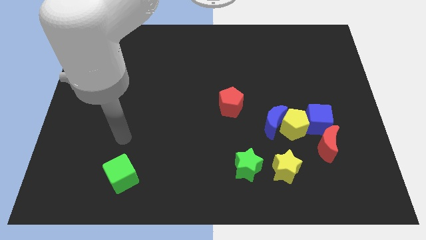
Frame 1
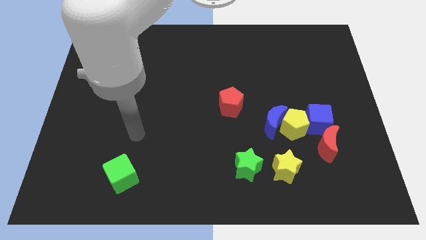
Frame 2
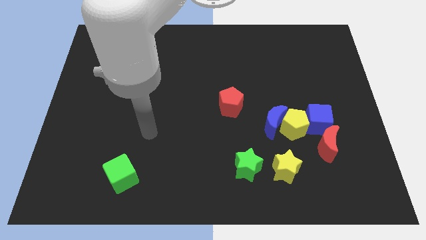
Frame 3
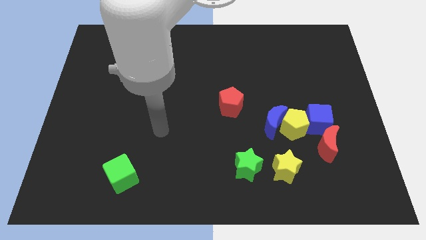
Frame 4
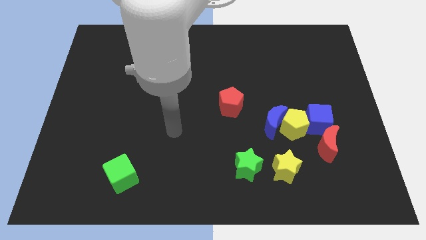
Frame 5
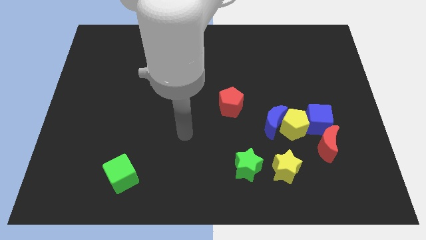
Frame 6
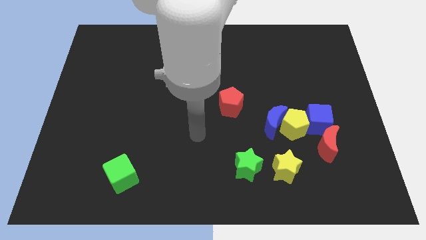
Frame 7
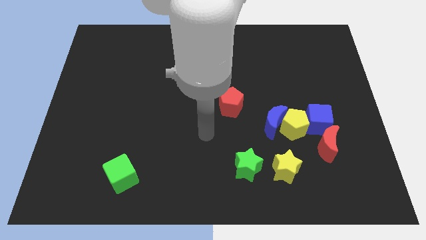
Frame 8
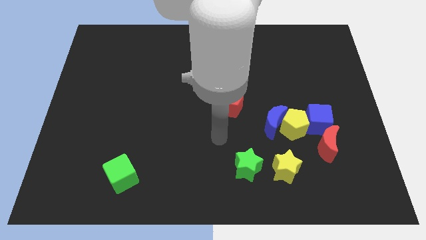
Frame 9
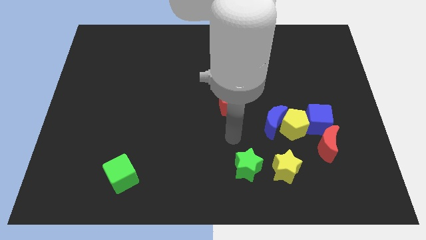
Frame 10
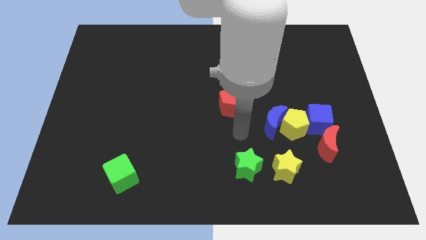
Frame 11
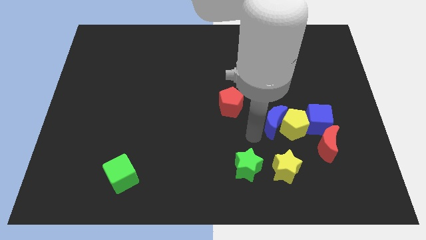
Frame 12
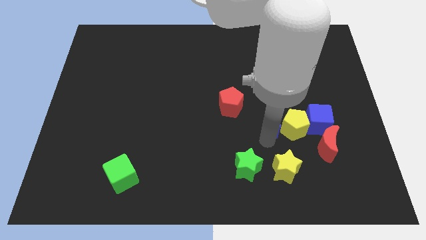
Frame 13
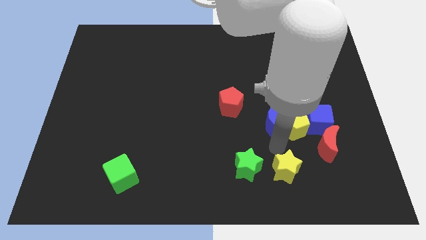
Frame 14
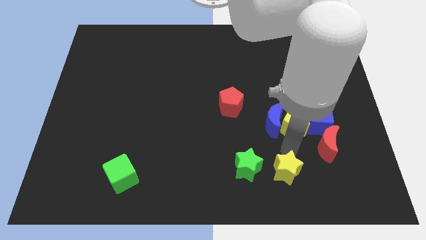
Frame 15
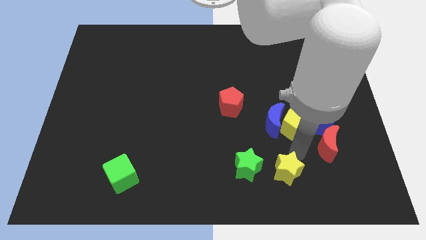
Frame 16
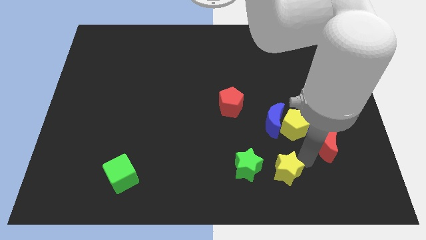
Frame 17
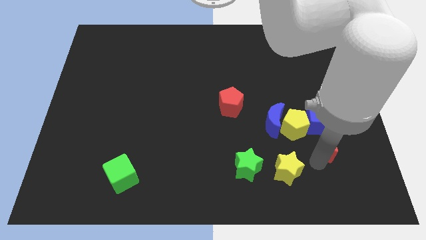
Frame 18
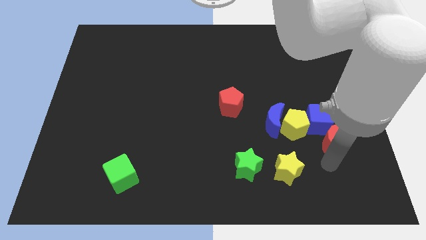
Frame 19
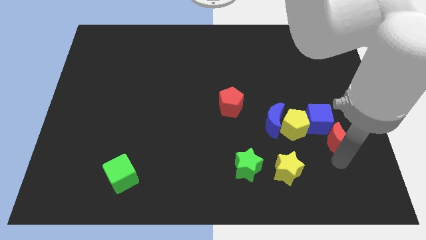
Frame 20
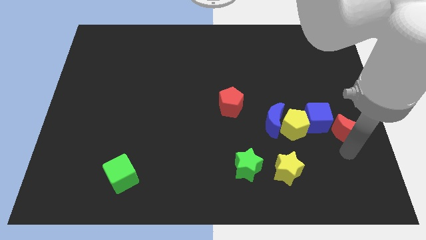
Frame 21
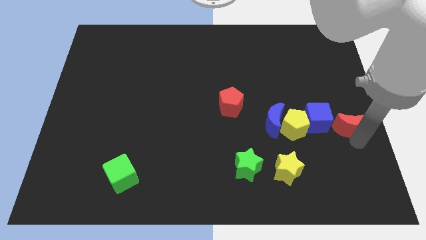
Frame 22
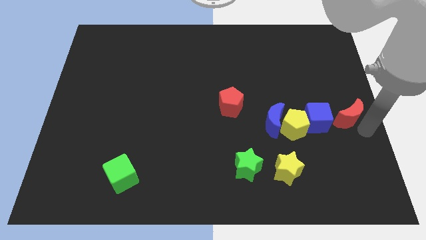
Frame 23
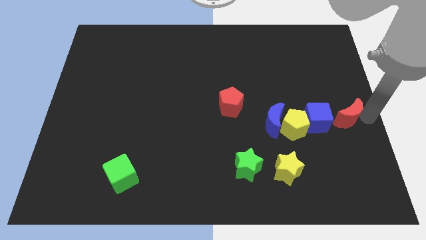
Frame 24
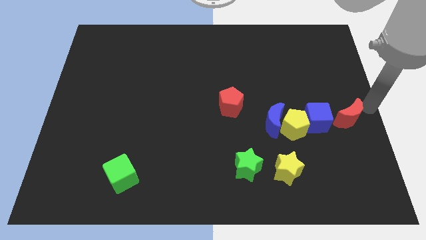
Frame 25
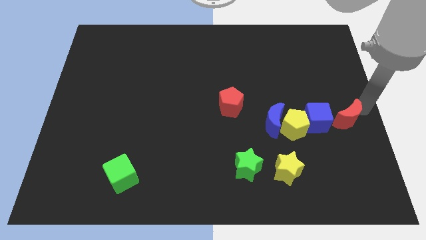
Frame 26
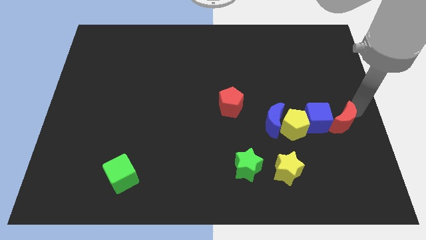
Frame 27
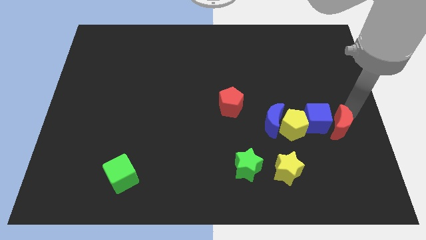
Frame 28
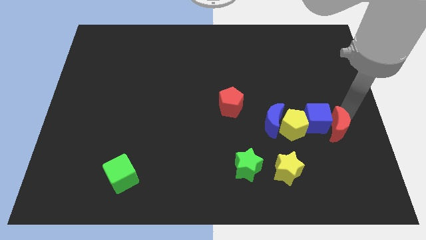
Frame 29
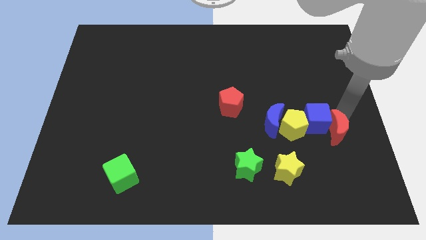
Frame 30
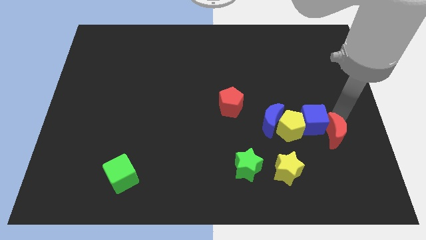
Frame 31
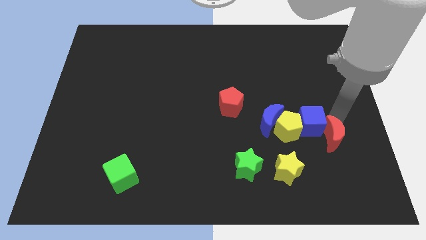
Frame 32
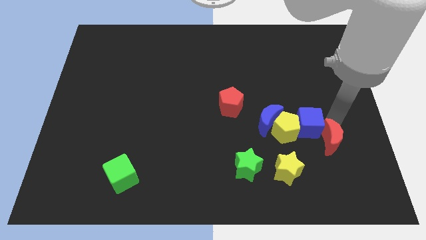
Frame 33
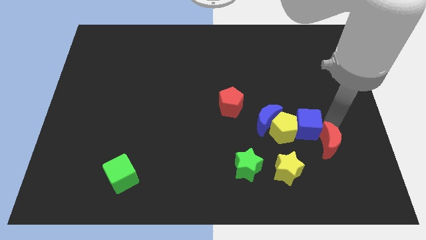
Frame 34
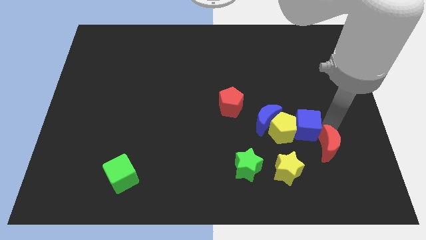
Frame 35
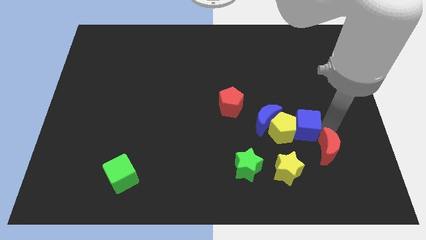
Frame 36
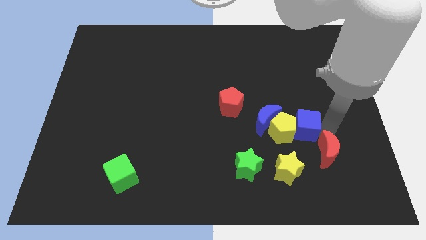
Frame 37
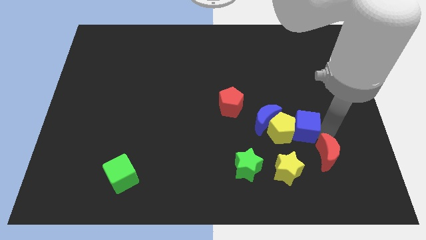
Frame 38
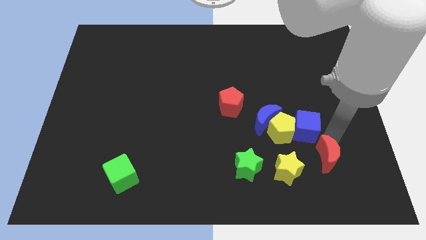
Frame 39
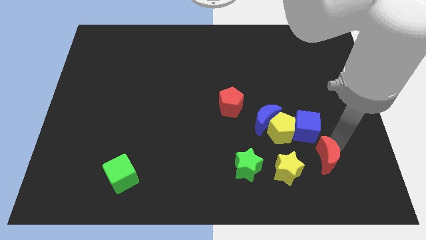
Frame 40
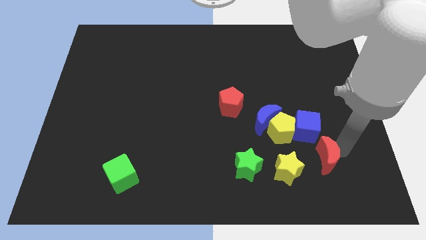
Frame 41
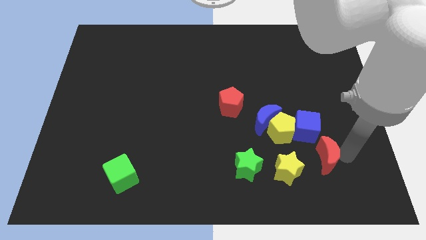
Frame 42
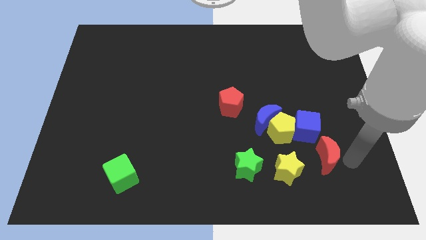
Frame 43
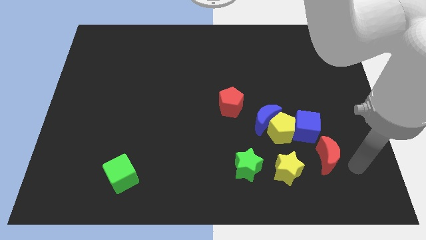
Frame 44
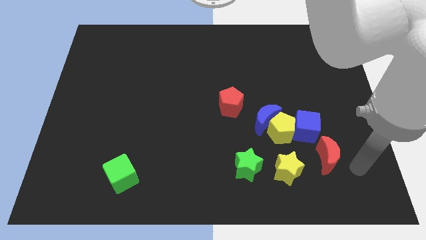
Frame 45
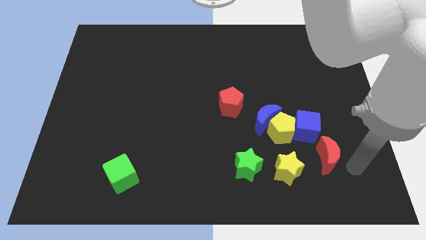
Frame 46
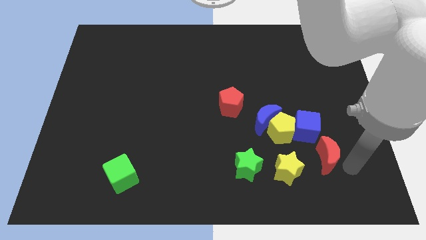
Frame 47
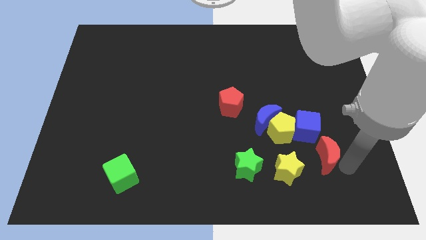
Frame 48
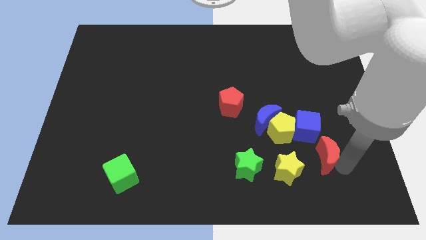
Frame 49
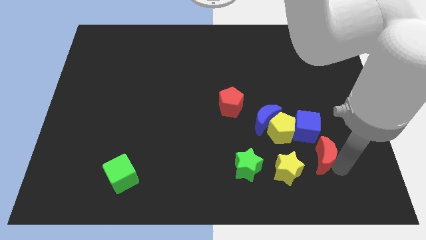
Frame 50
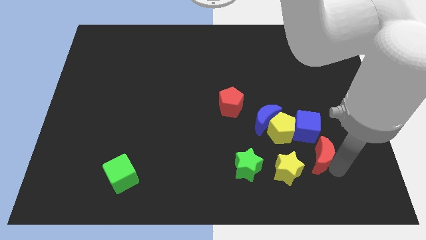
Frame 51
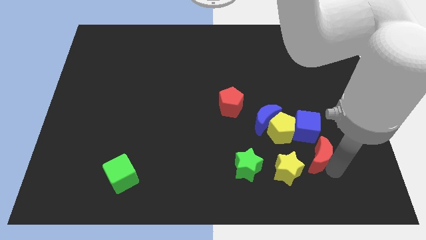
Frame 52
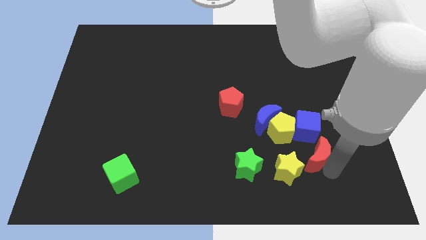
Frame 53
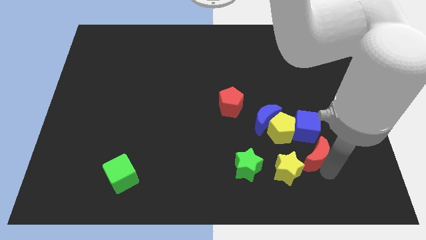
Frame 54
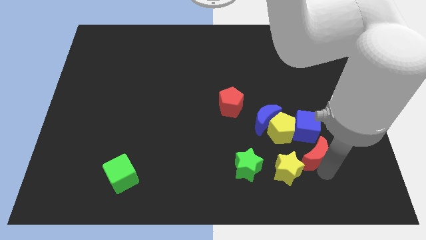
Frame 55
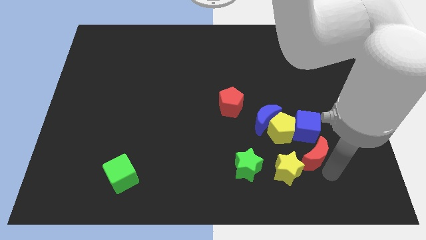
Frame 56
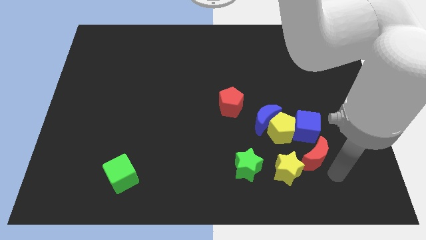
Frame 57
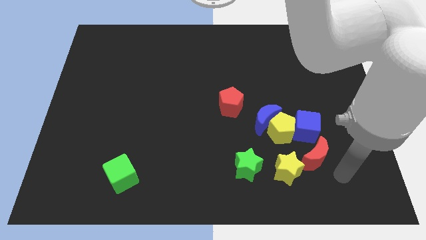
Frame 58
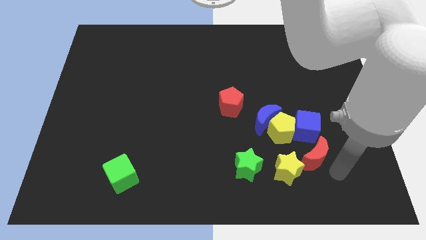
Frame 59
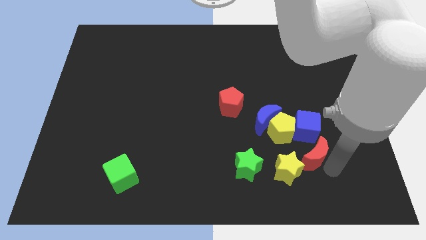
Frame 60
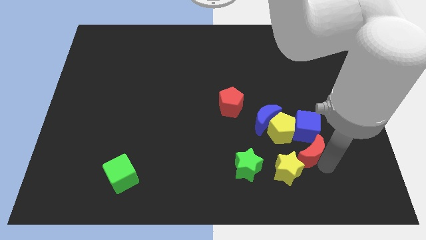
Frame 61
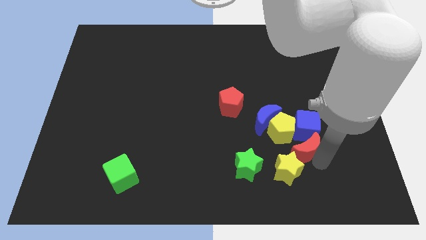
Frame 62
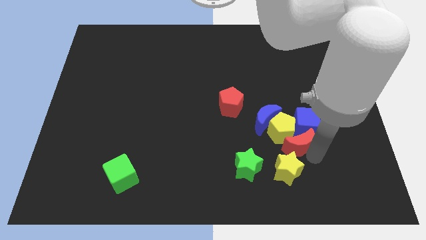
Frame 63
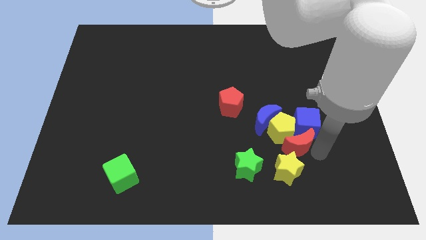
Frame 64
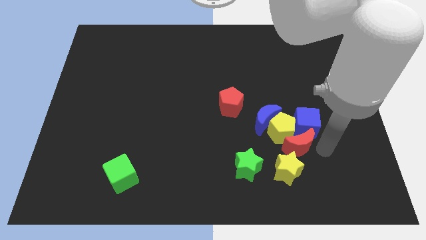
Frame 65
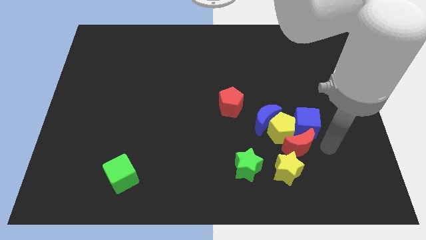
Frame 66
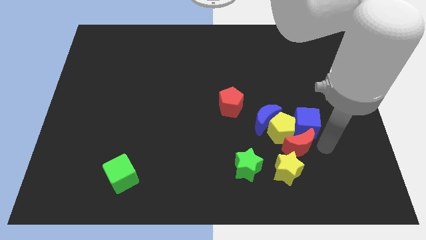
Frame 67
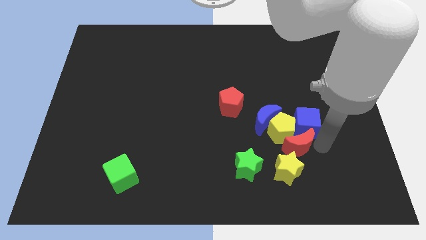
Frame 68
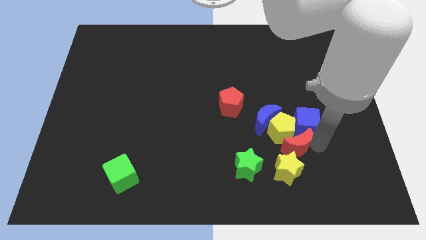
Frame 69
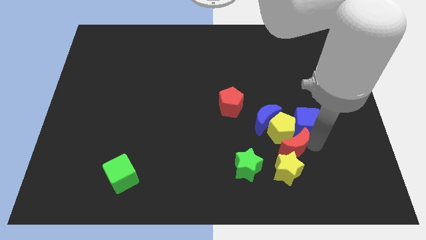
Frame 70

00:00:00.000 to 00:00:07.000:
move the red moon to the top right of the green star

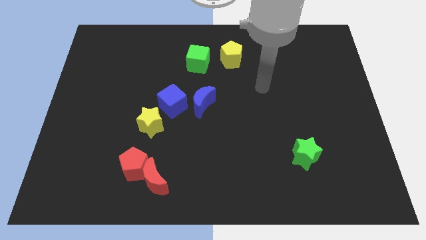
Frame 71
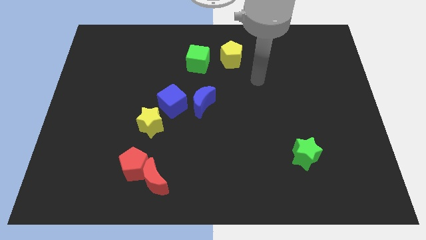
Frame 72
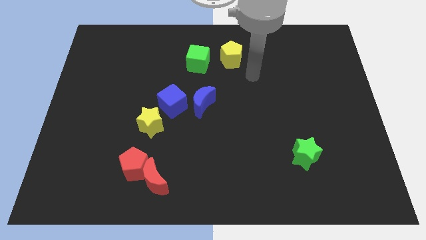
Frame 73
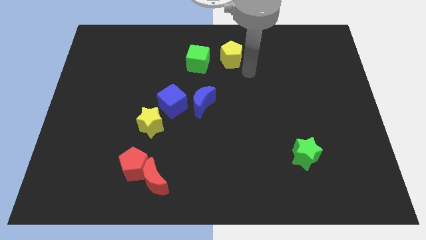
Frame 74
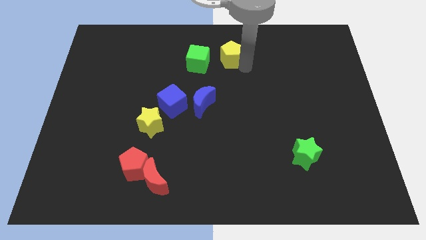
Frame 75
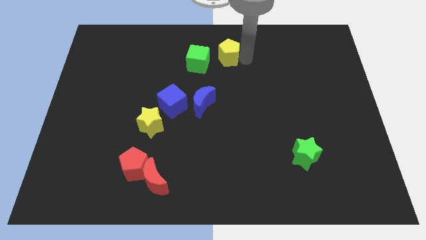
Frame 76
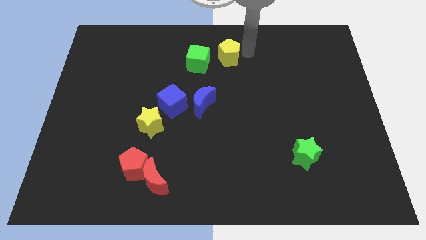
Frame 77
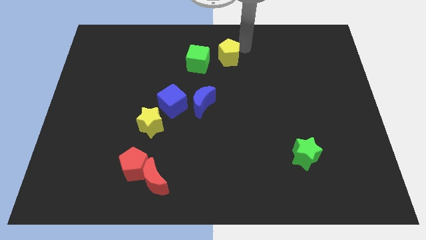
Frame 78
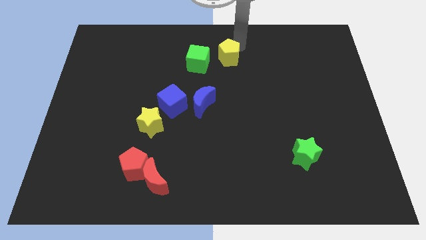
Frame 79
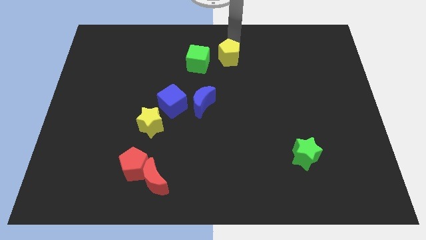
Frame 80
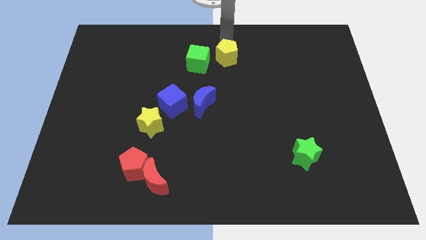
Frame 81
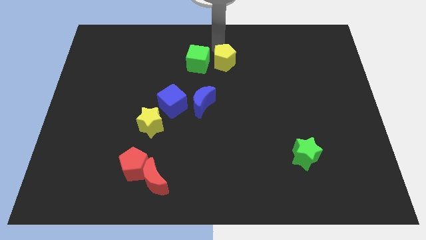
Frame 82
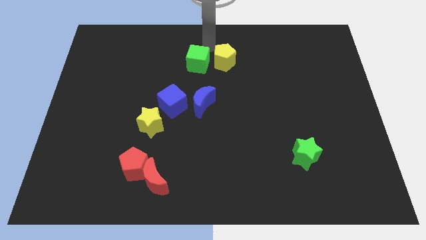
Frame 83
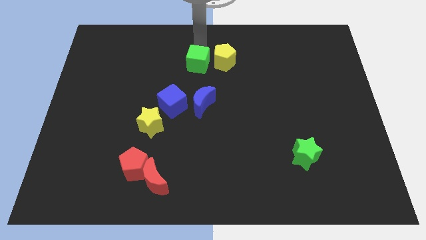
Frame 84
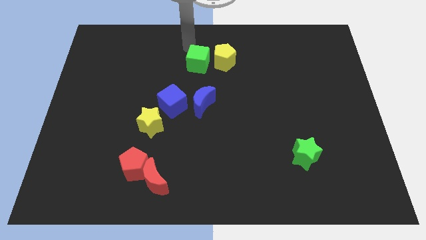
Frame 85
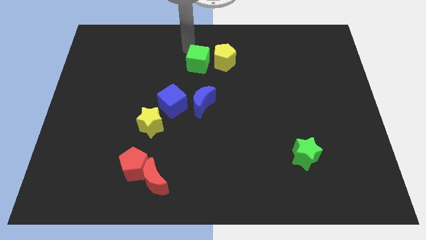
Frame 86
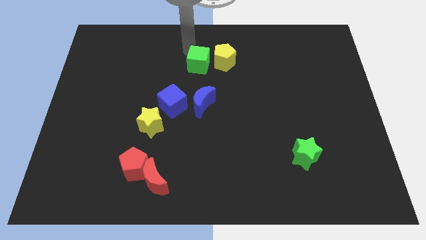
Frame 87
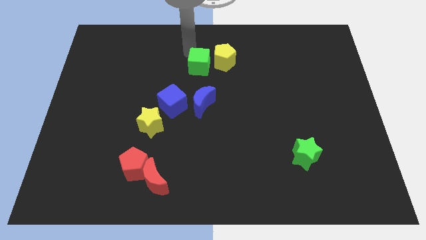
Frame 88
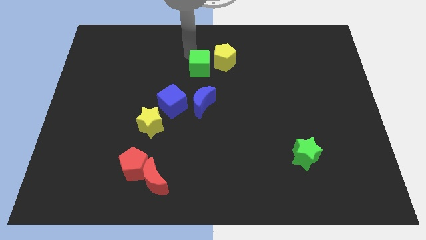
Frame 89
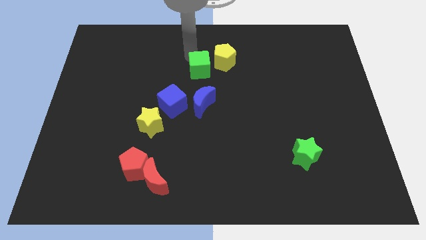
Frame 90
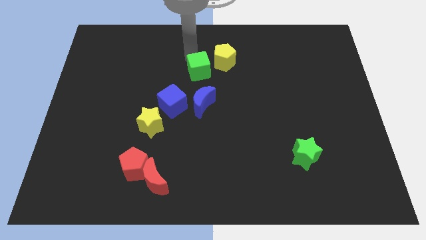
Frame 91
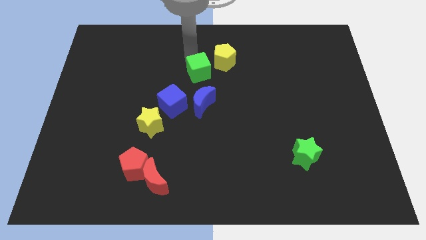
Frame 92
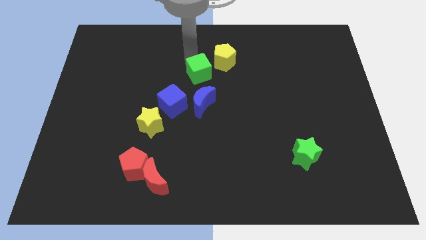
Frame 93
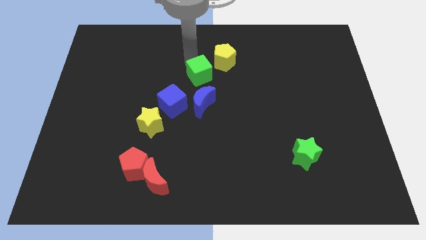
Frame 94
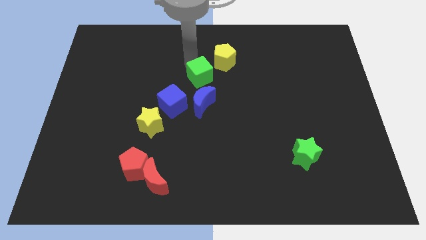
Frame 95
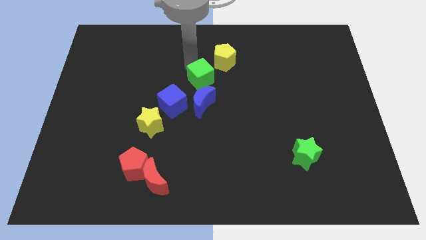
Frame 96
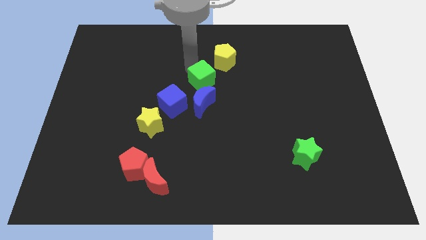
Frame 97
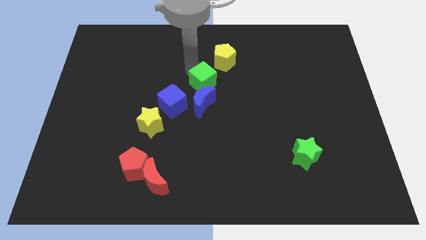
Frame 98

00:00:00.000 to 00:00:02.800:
put the green cube to the top right side of the blue moon
